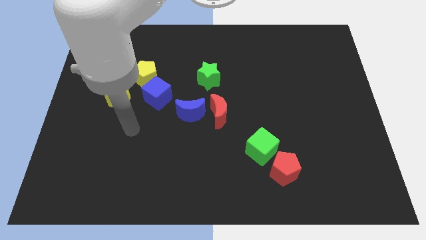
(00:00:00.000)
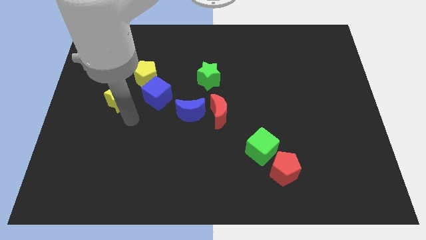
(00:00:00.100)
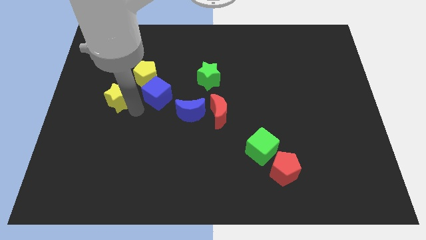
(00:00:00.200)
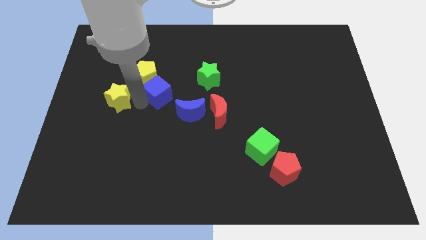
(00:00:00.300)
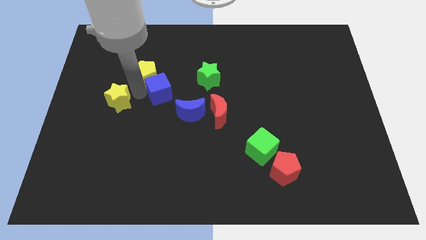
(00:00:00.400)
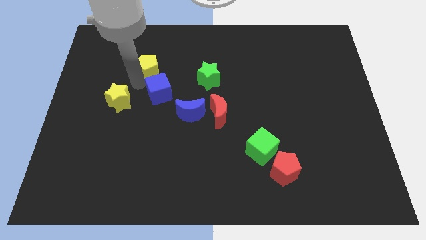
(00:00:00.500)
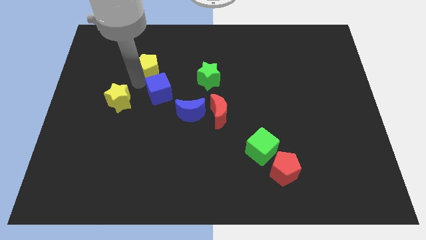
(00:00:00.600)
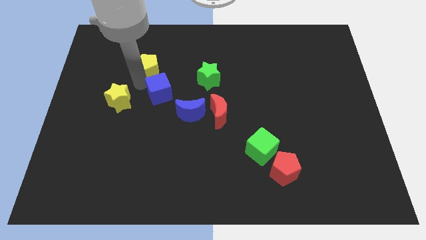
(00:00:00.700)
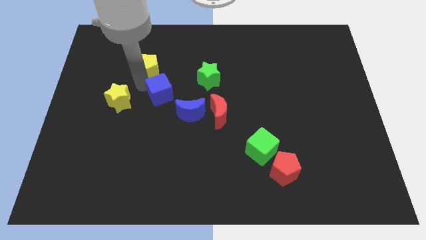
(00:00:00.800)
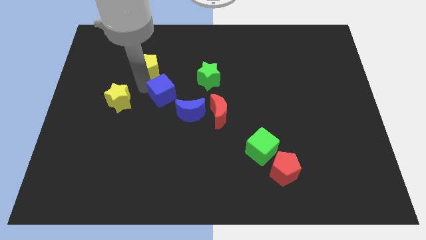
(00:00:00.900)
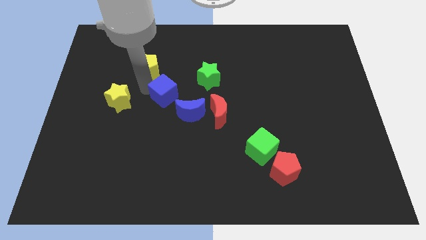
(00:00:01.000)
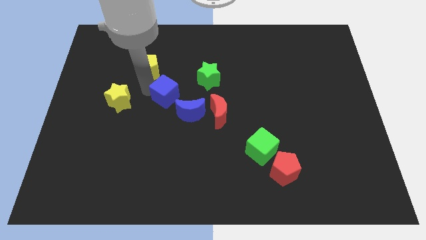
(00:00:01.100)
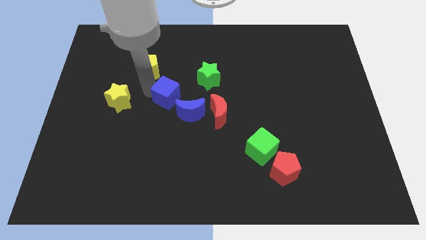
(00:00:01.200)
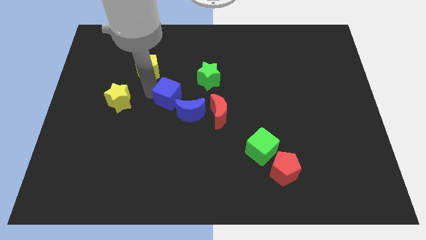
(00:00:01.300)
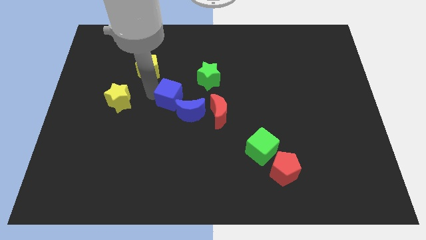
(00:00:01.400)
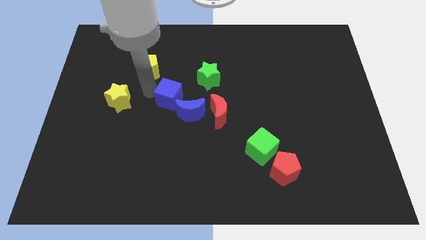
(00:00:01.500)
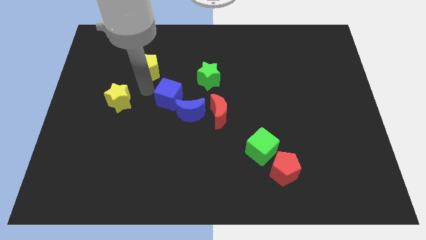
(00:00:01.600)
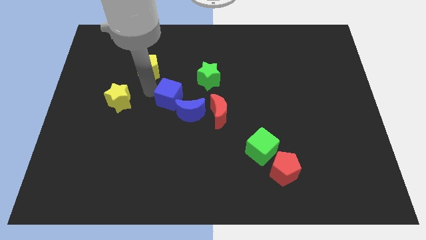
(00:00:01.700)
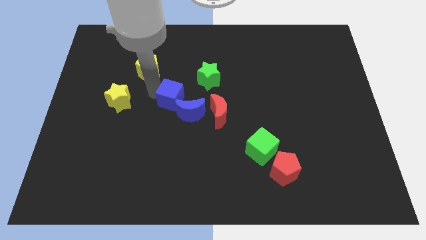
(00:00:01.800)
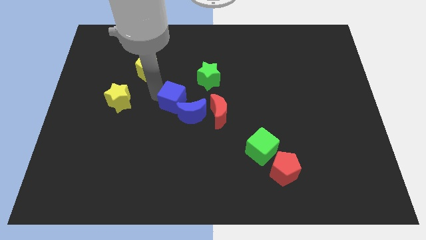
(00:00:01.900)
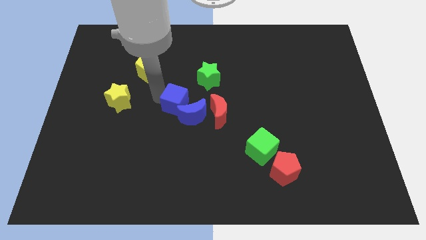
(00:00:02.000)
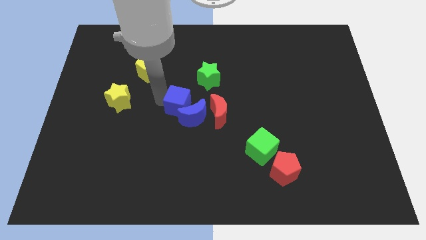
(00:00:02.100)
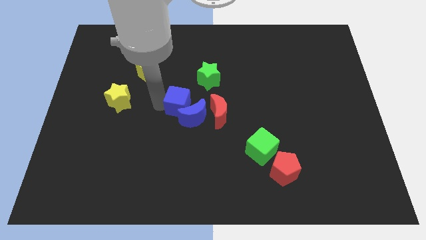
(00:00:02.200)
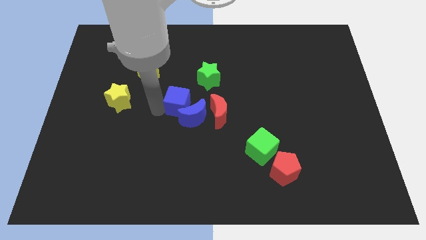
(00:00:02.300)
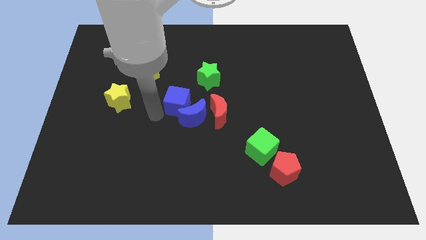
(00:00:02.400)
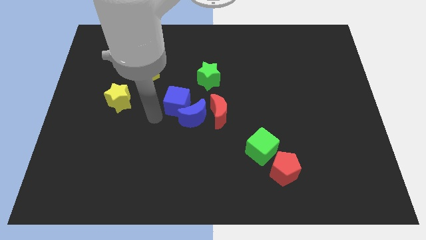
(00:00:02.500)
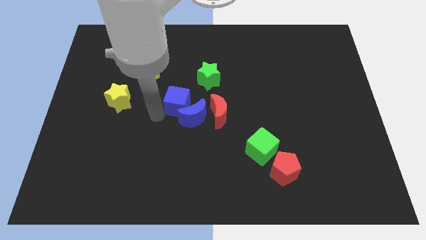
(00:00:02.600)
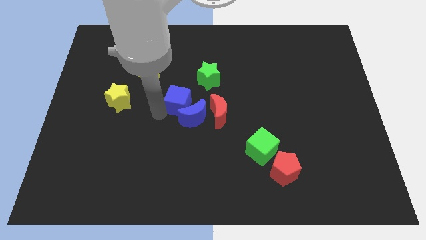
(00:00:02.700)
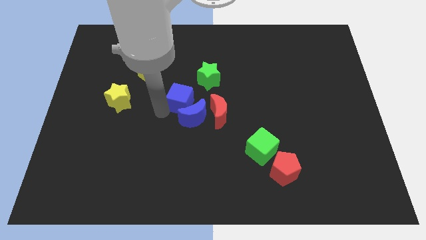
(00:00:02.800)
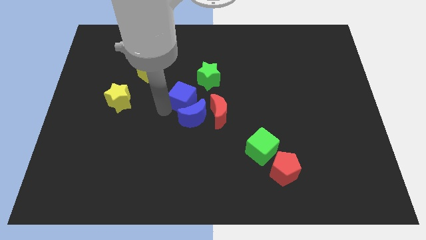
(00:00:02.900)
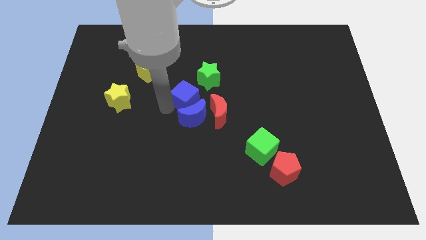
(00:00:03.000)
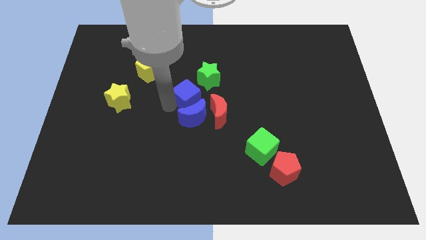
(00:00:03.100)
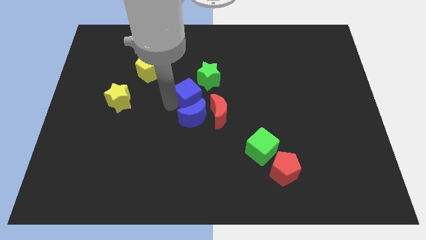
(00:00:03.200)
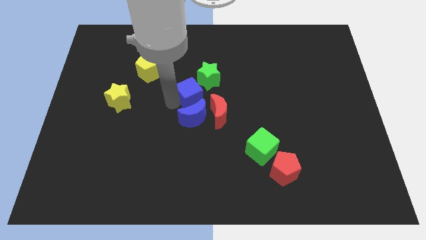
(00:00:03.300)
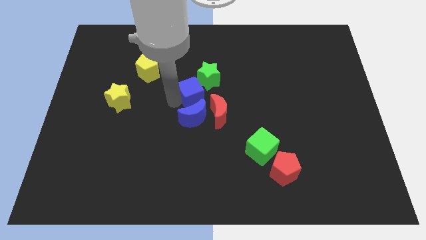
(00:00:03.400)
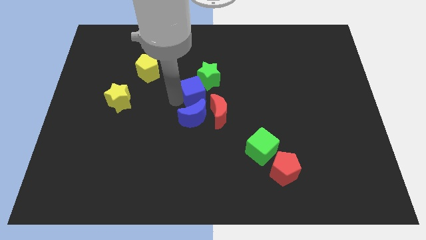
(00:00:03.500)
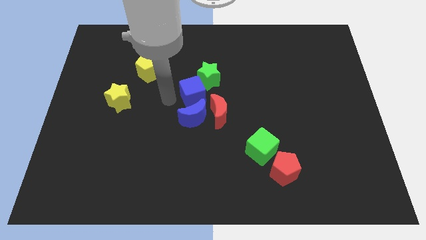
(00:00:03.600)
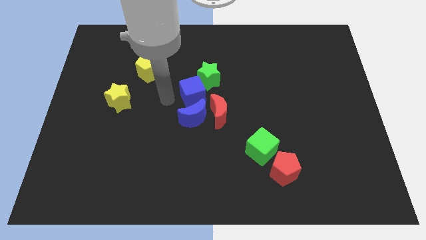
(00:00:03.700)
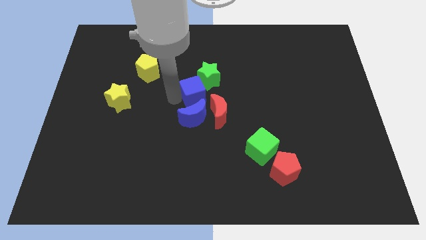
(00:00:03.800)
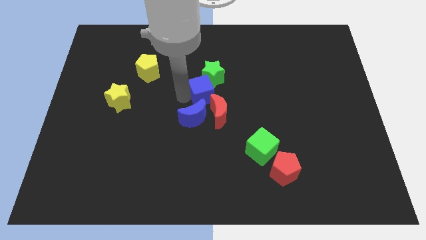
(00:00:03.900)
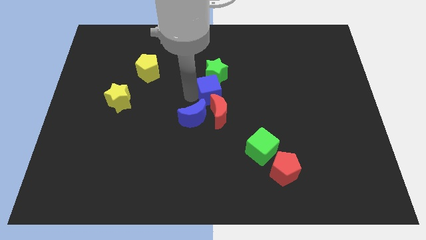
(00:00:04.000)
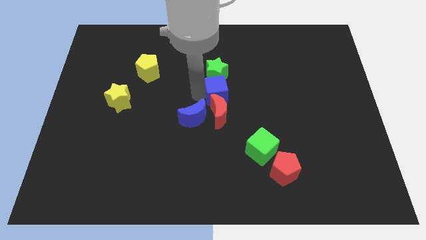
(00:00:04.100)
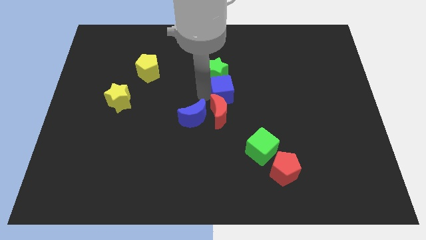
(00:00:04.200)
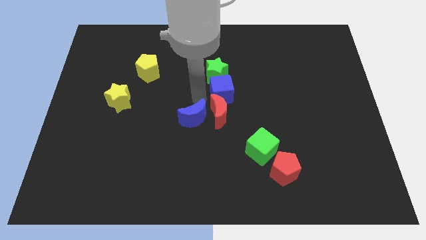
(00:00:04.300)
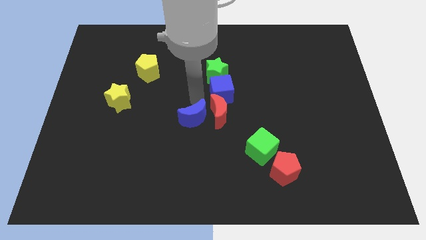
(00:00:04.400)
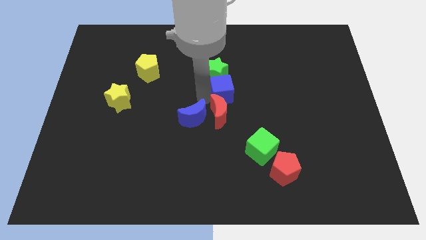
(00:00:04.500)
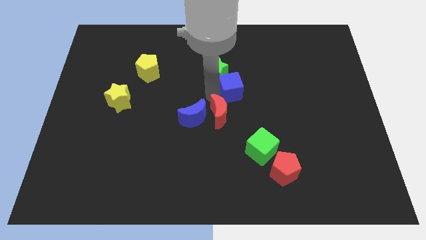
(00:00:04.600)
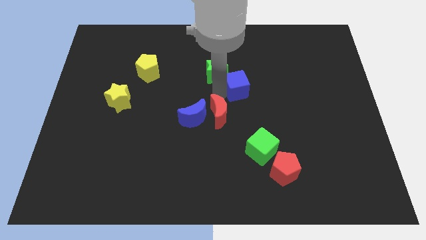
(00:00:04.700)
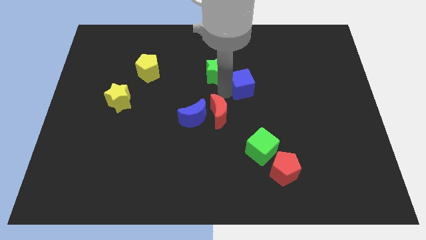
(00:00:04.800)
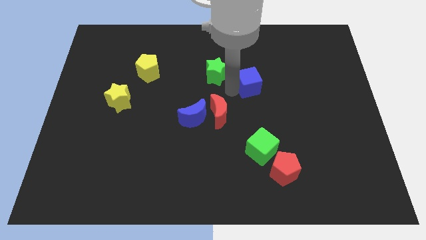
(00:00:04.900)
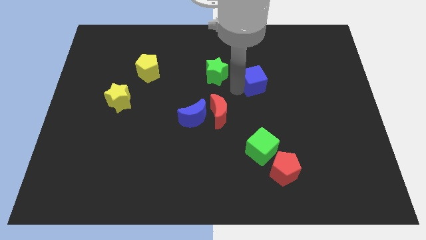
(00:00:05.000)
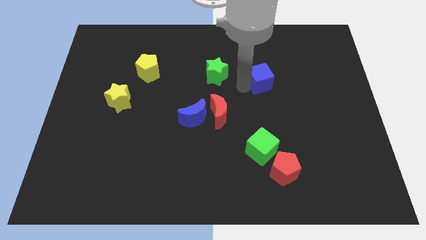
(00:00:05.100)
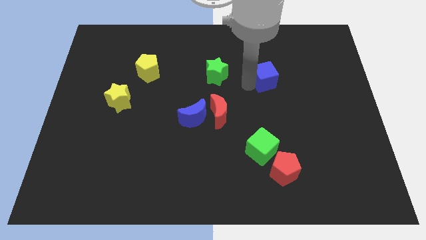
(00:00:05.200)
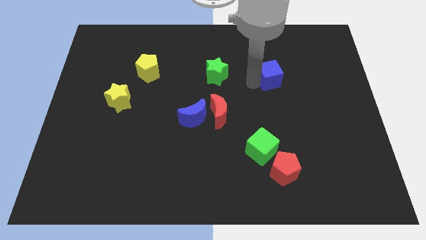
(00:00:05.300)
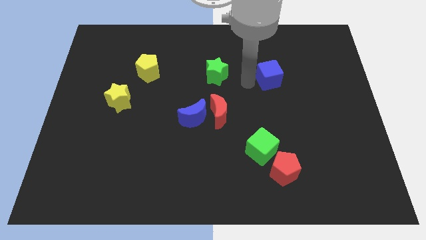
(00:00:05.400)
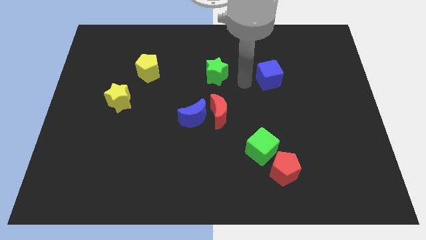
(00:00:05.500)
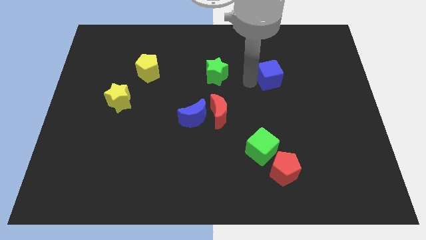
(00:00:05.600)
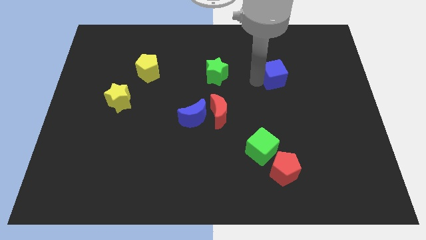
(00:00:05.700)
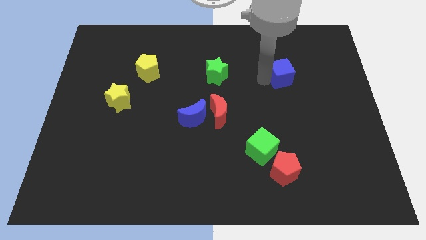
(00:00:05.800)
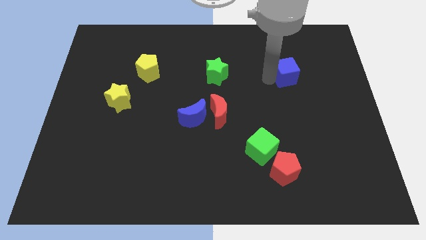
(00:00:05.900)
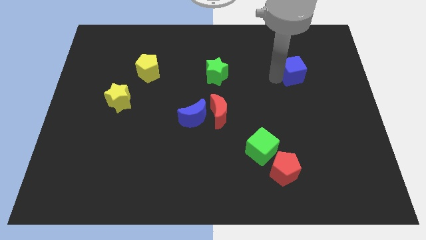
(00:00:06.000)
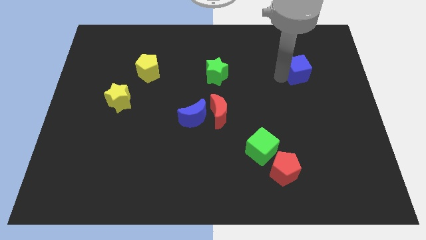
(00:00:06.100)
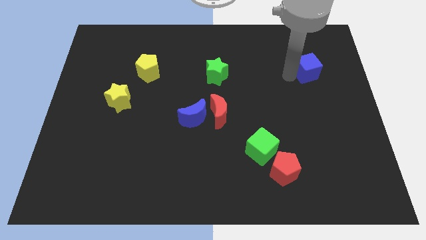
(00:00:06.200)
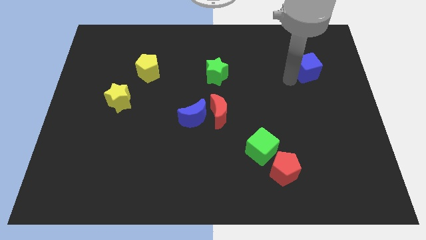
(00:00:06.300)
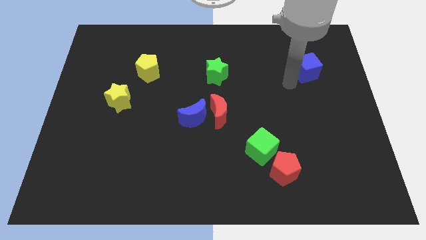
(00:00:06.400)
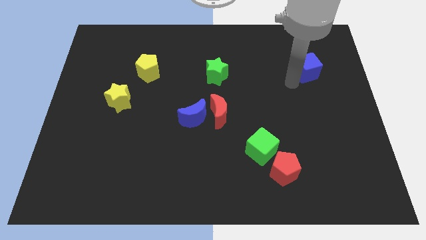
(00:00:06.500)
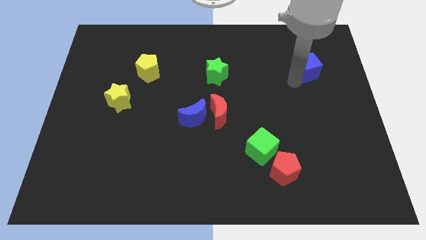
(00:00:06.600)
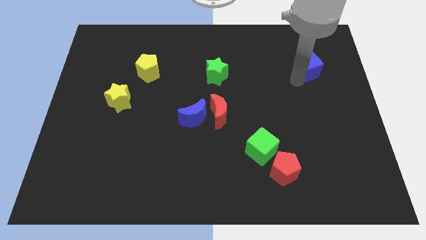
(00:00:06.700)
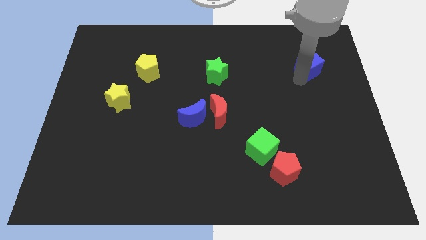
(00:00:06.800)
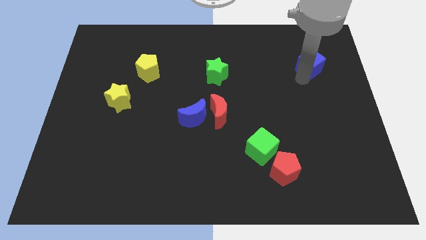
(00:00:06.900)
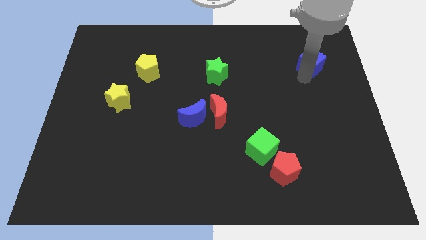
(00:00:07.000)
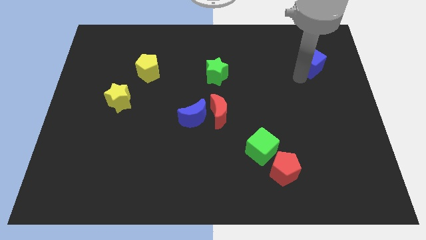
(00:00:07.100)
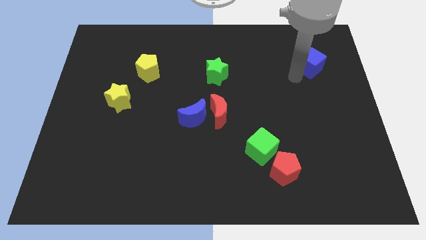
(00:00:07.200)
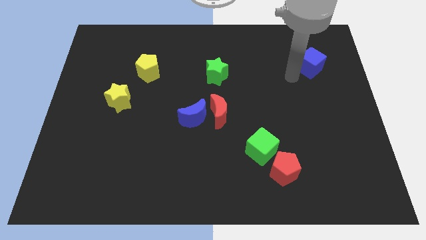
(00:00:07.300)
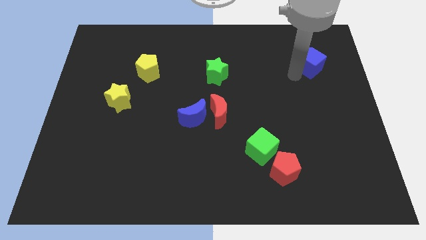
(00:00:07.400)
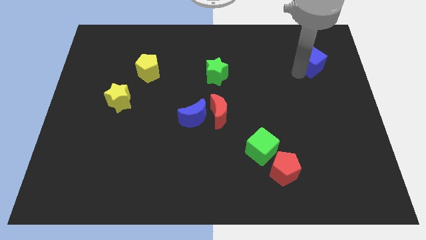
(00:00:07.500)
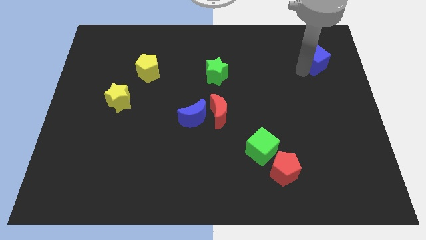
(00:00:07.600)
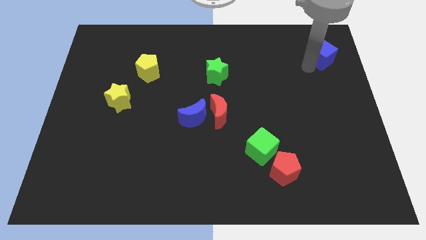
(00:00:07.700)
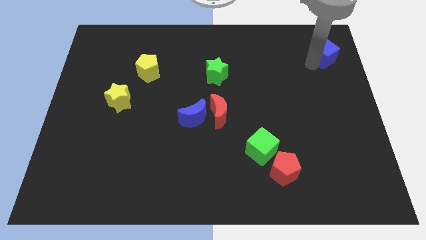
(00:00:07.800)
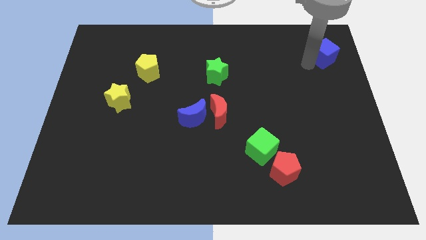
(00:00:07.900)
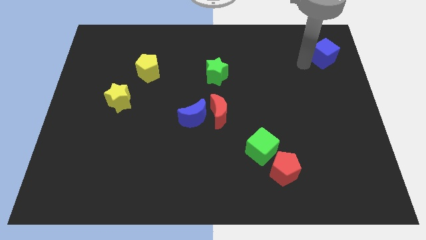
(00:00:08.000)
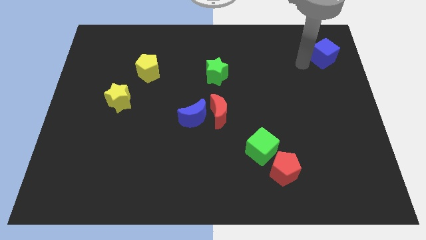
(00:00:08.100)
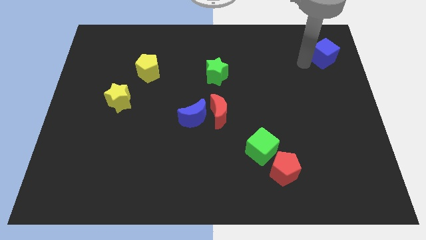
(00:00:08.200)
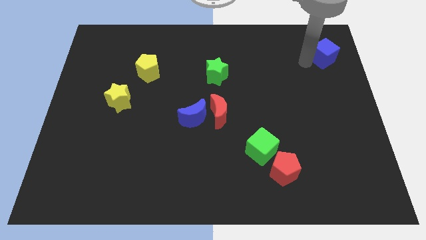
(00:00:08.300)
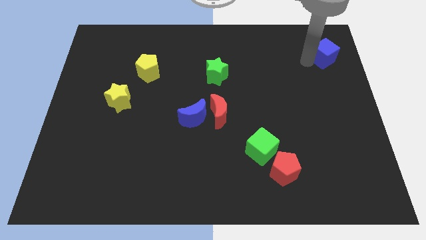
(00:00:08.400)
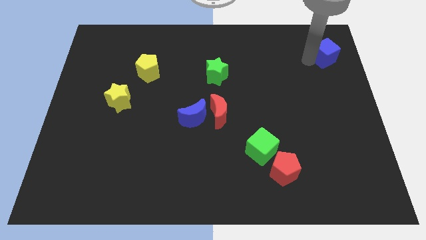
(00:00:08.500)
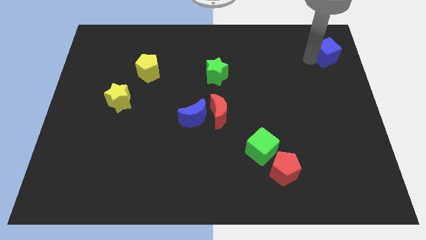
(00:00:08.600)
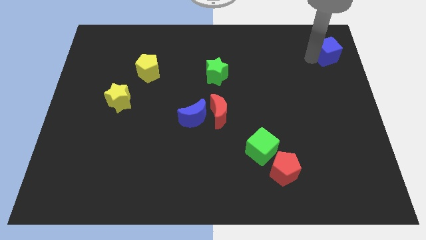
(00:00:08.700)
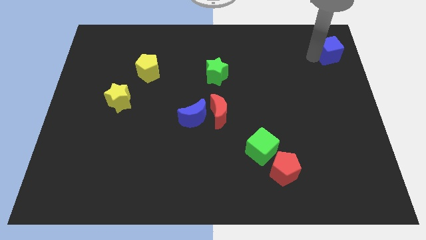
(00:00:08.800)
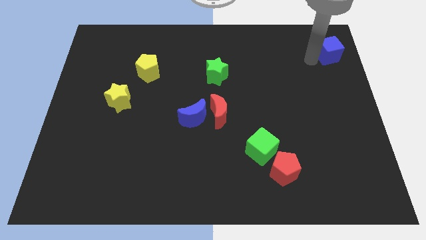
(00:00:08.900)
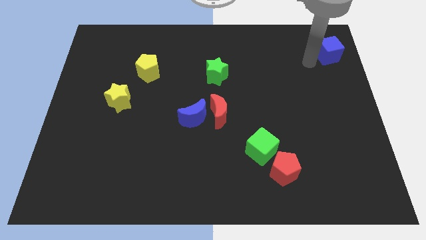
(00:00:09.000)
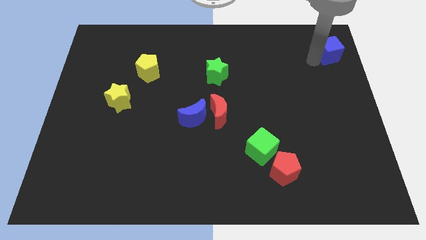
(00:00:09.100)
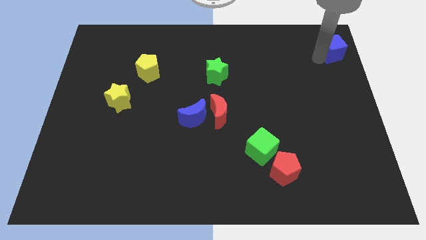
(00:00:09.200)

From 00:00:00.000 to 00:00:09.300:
put the blue cube to the top right of the board
